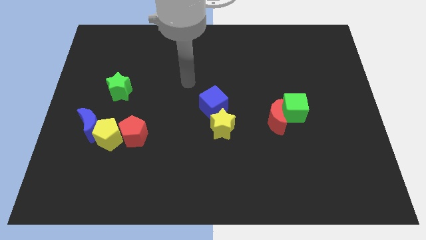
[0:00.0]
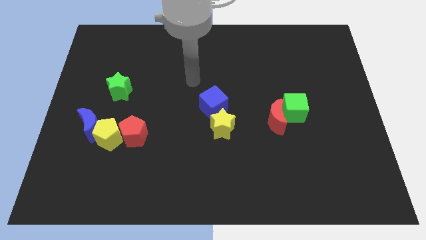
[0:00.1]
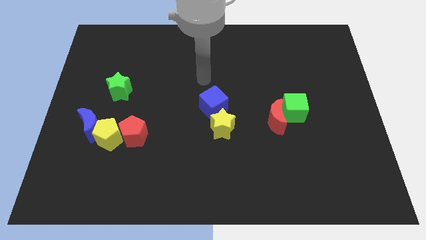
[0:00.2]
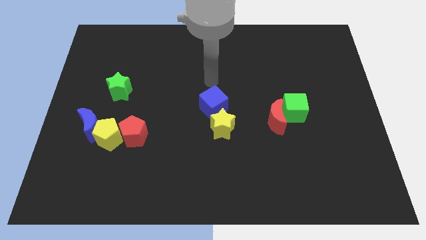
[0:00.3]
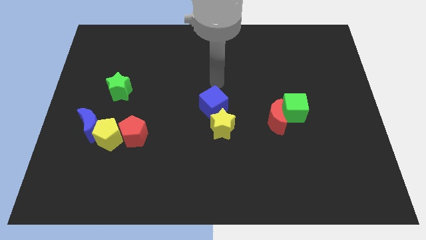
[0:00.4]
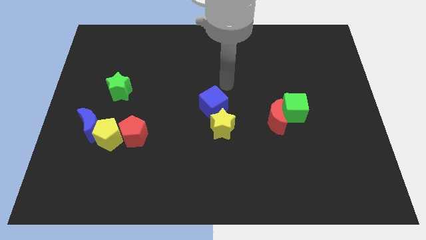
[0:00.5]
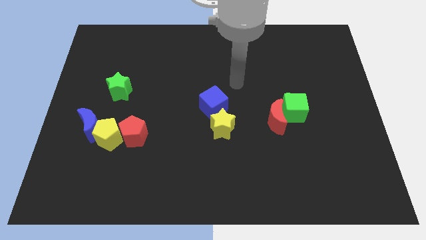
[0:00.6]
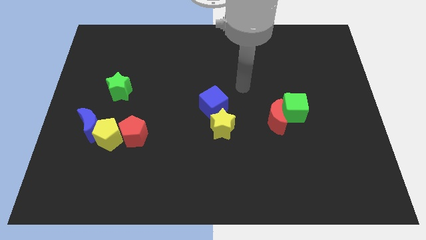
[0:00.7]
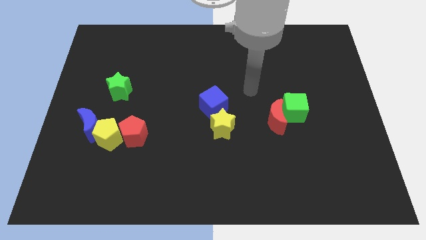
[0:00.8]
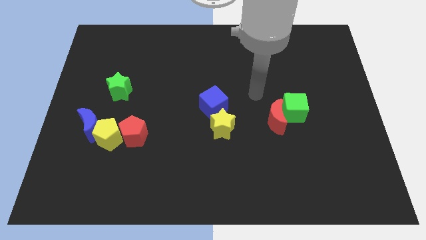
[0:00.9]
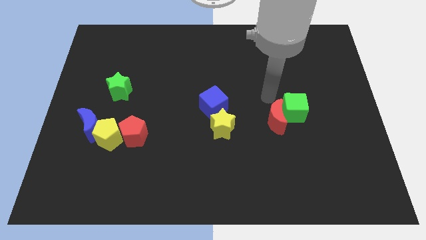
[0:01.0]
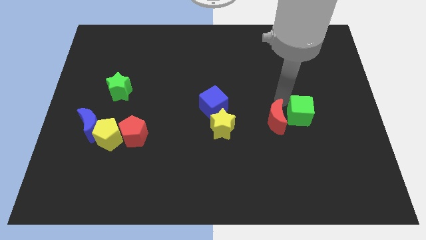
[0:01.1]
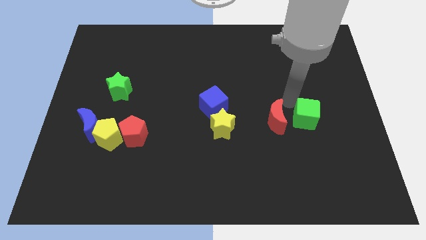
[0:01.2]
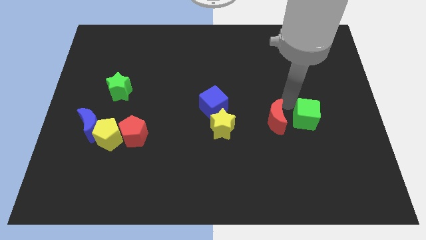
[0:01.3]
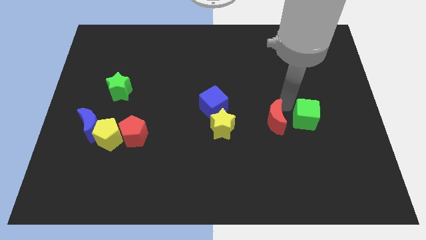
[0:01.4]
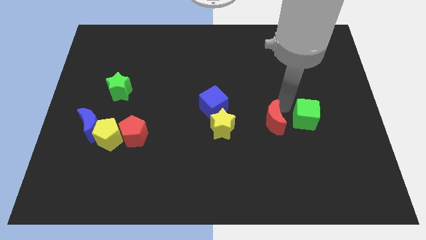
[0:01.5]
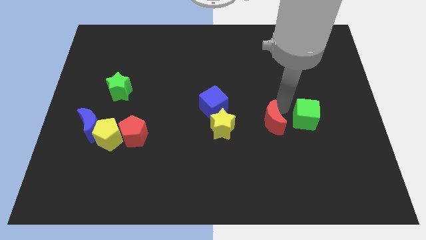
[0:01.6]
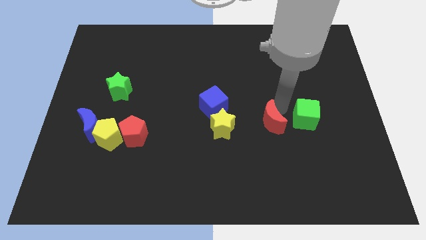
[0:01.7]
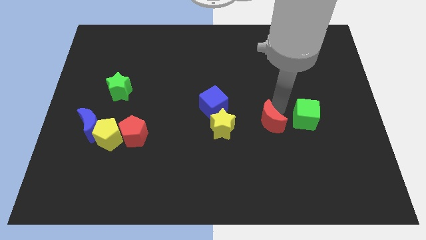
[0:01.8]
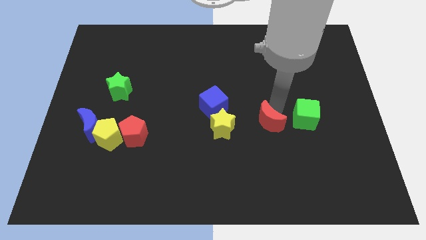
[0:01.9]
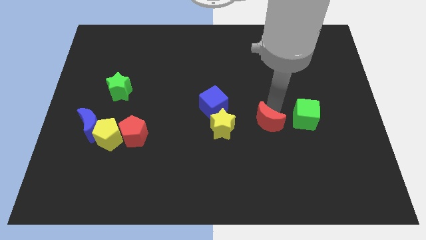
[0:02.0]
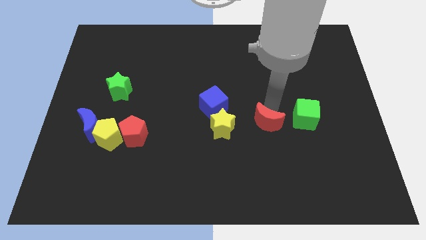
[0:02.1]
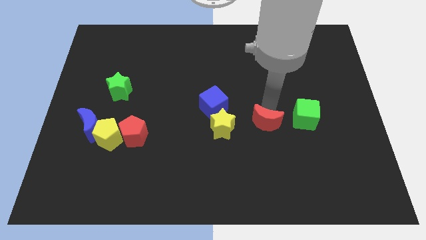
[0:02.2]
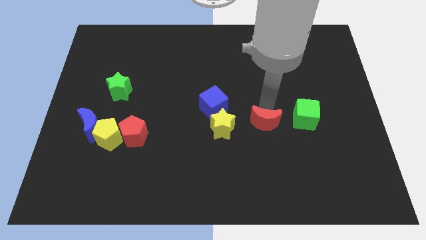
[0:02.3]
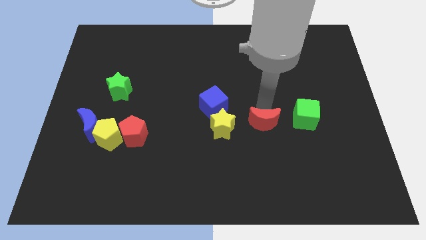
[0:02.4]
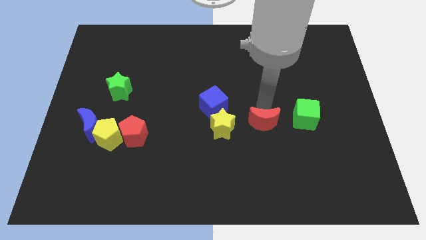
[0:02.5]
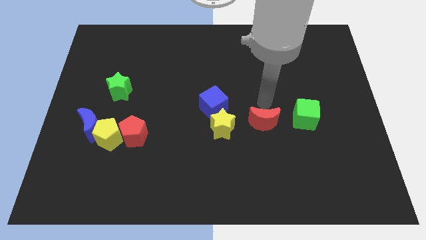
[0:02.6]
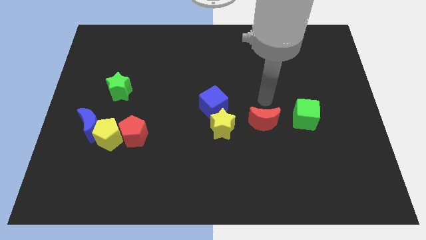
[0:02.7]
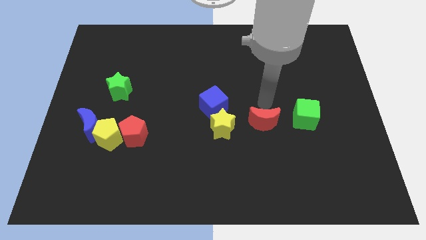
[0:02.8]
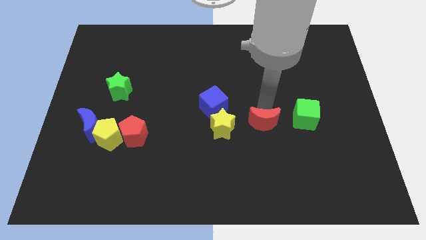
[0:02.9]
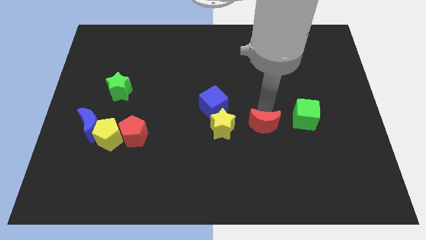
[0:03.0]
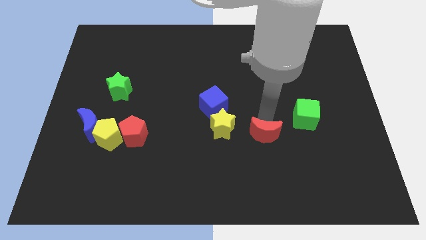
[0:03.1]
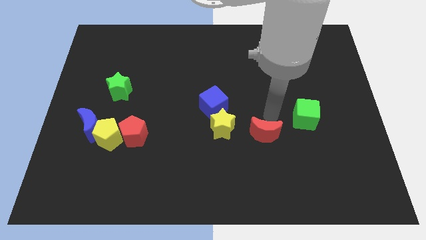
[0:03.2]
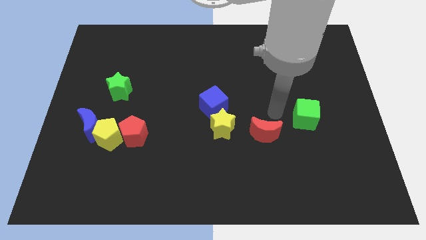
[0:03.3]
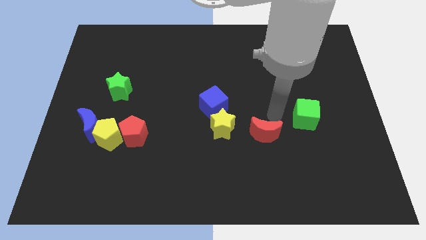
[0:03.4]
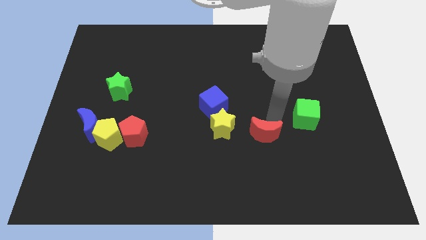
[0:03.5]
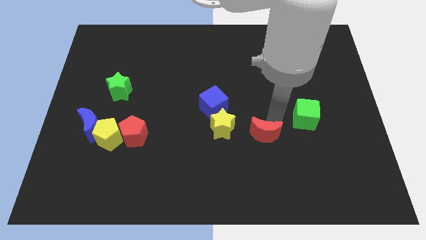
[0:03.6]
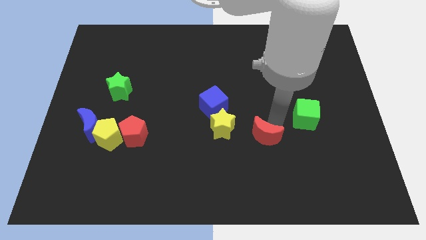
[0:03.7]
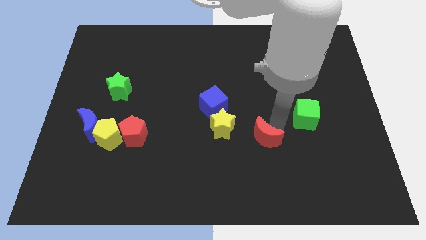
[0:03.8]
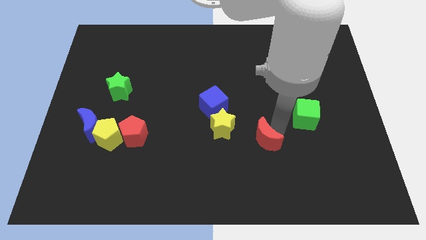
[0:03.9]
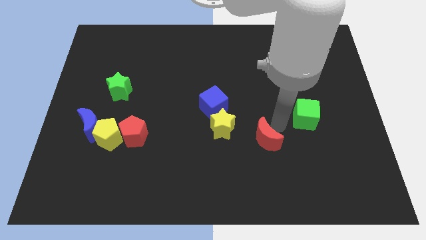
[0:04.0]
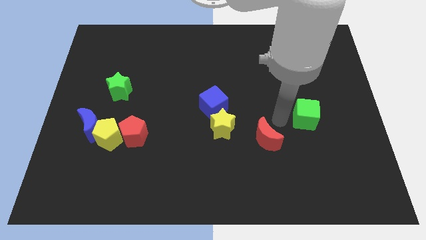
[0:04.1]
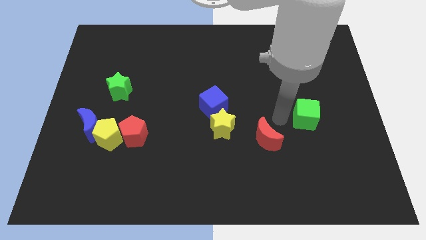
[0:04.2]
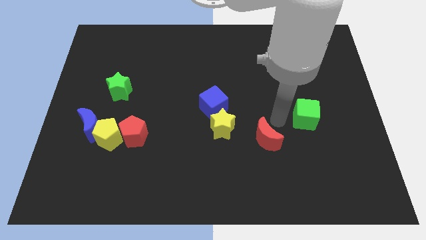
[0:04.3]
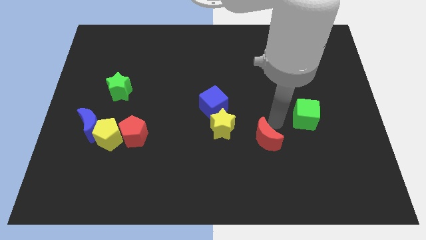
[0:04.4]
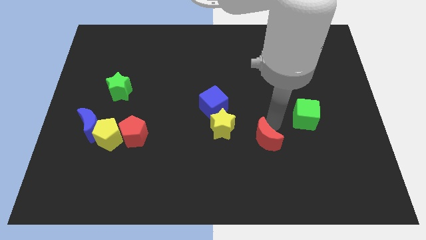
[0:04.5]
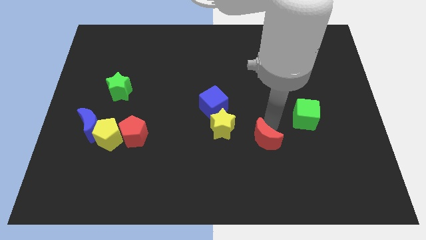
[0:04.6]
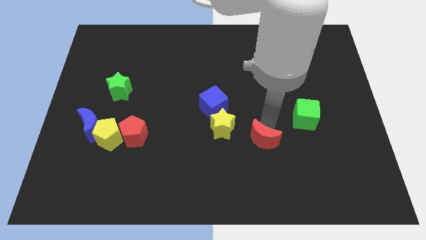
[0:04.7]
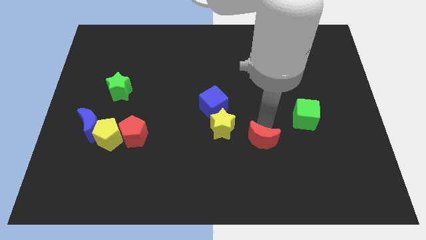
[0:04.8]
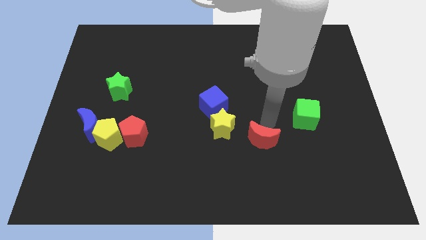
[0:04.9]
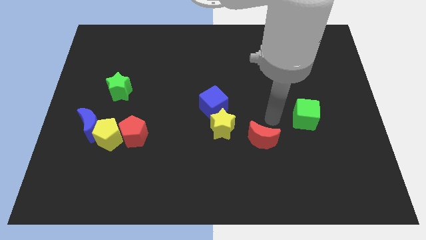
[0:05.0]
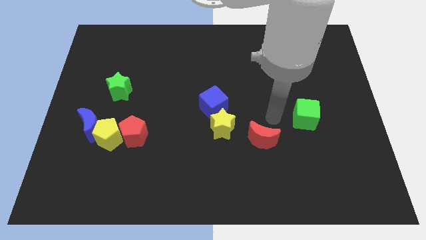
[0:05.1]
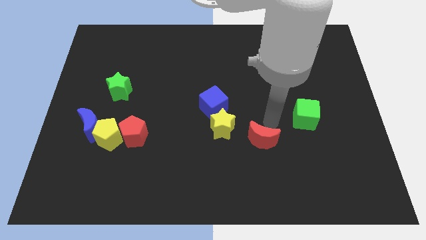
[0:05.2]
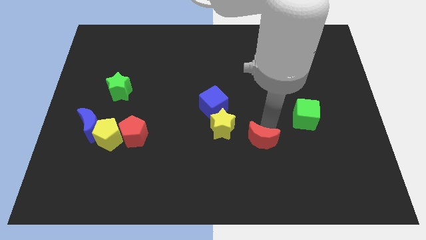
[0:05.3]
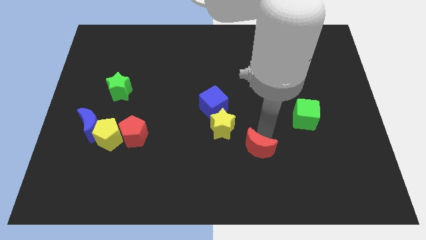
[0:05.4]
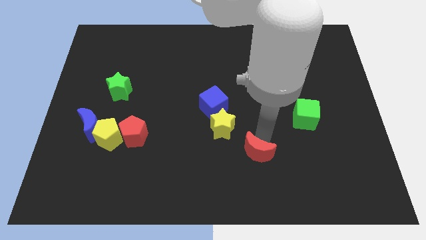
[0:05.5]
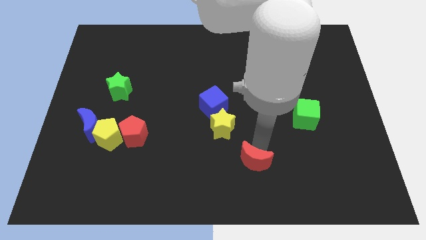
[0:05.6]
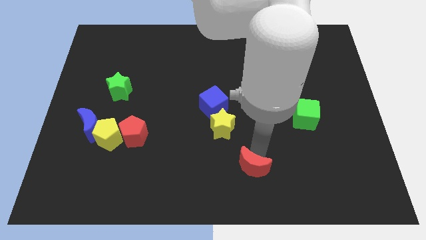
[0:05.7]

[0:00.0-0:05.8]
slide the red moon to the bottom side
